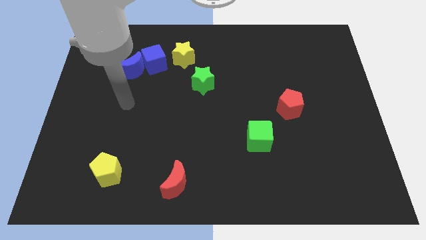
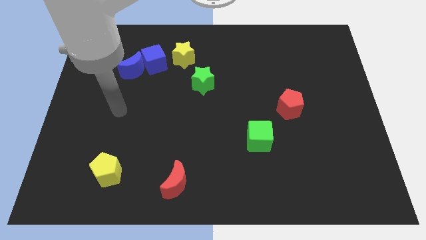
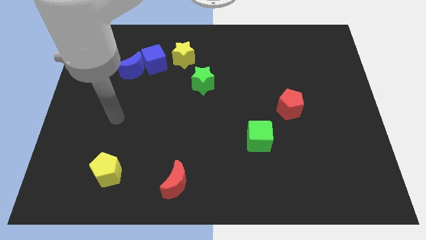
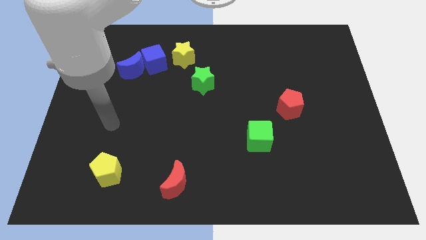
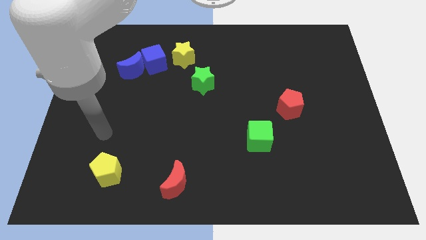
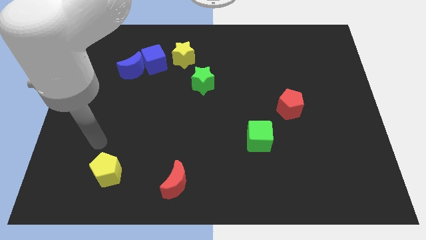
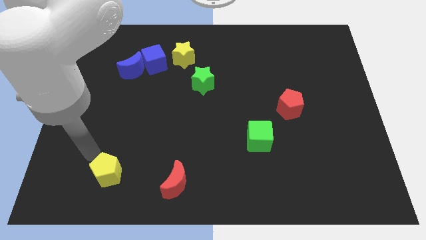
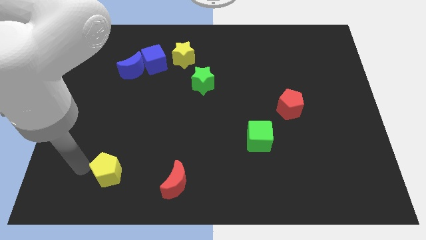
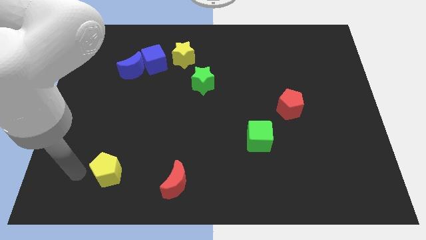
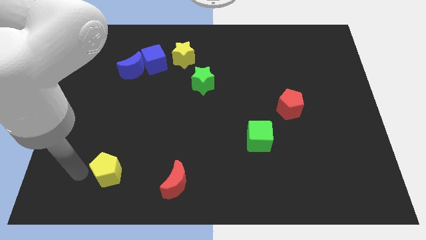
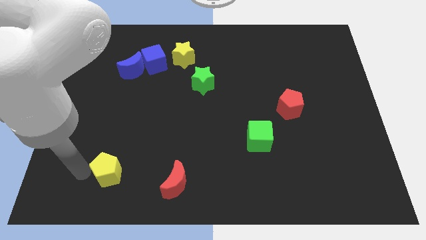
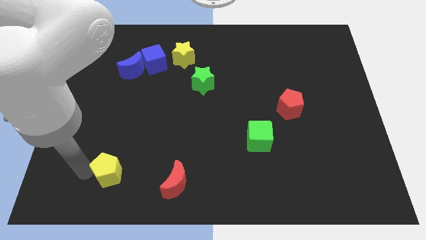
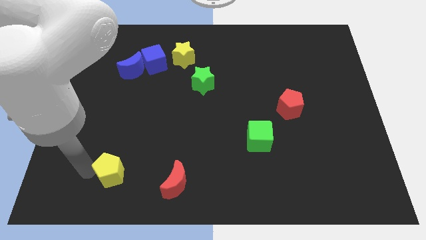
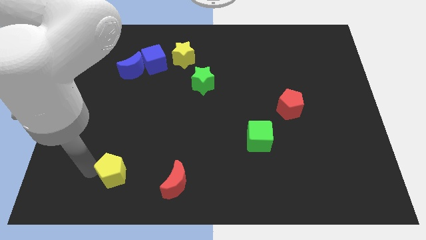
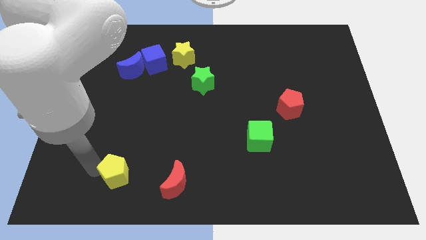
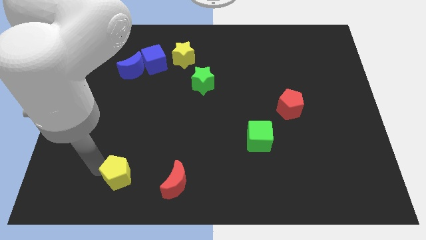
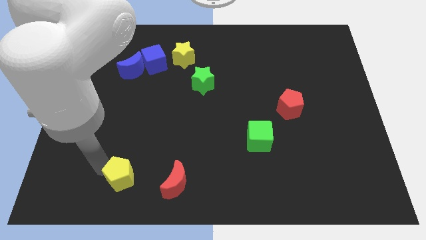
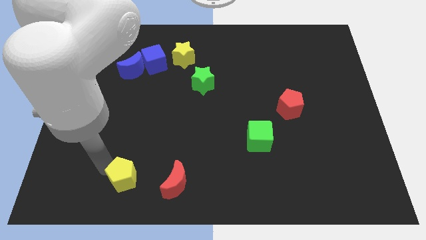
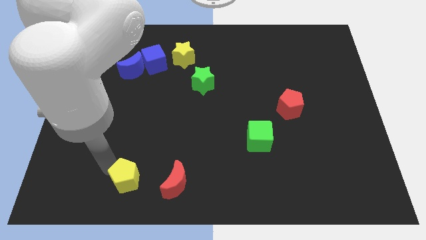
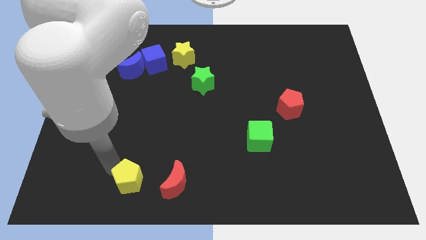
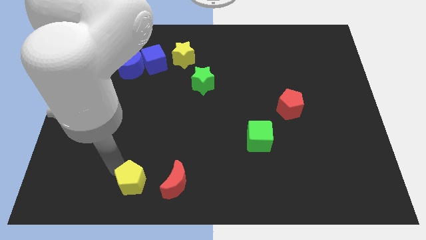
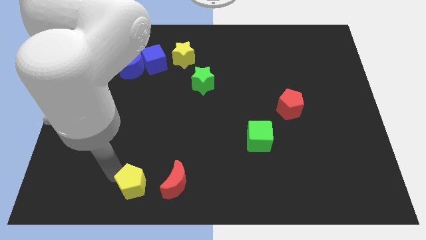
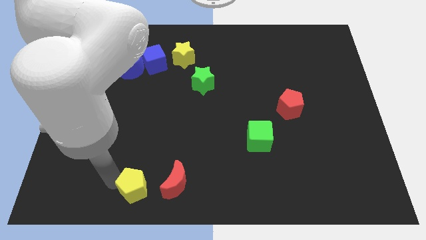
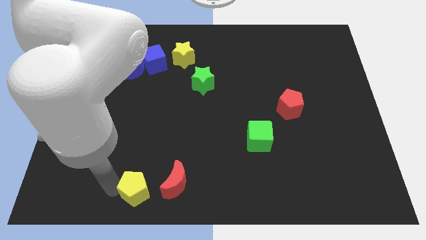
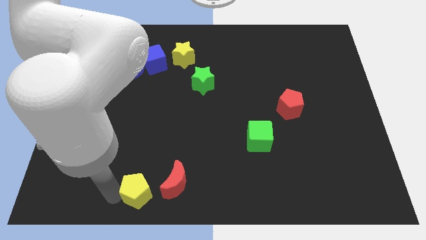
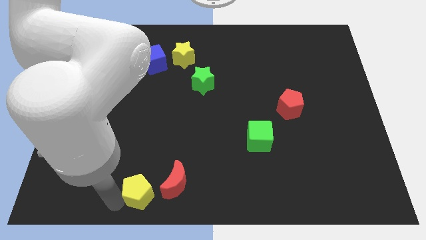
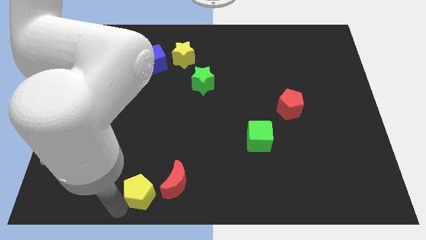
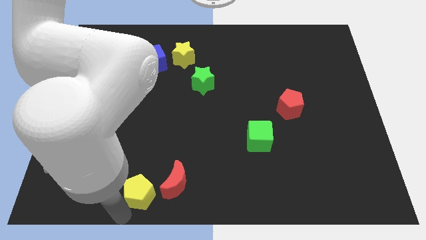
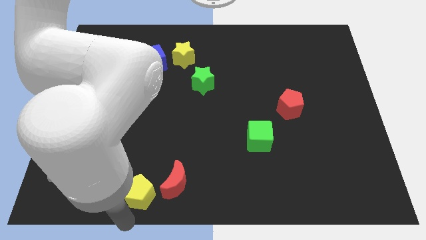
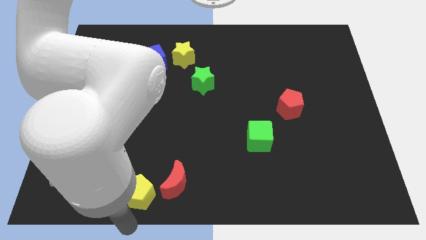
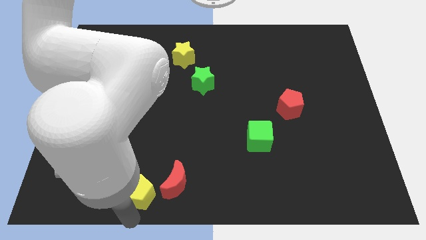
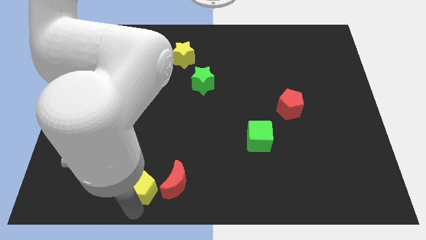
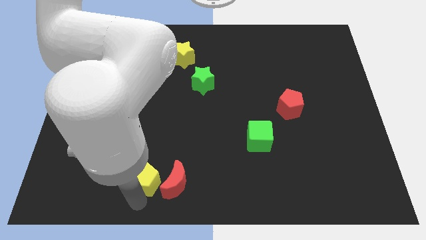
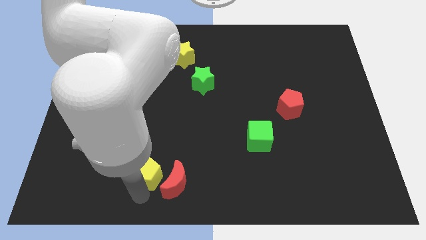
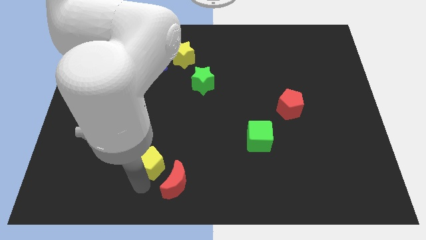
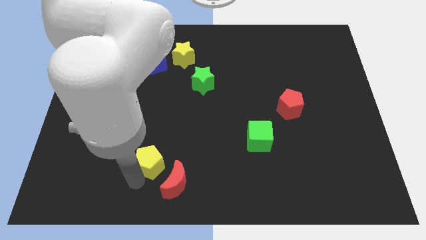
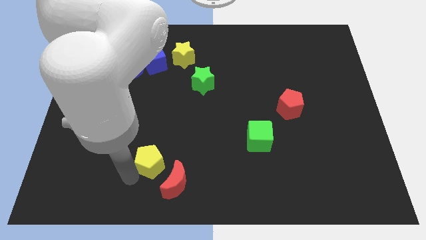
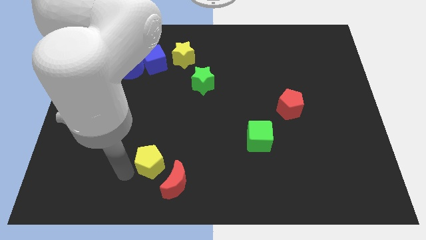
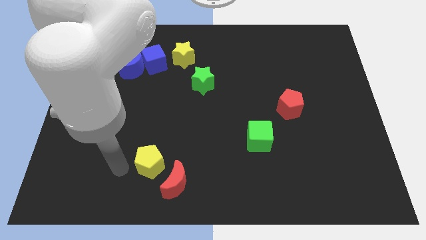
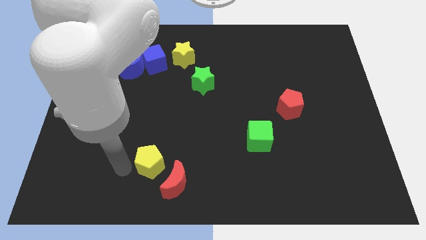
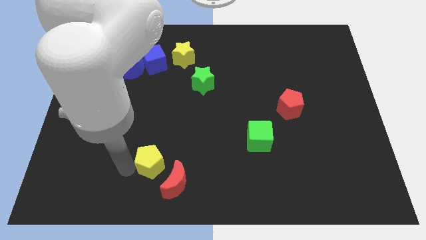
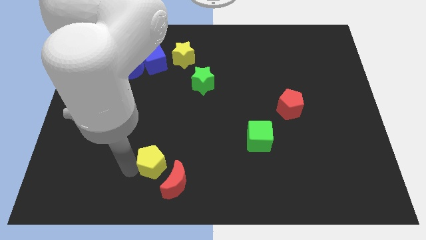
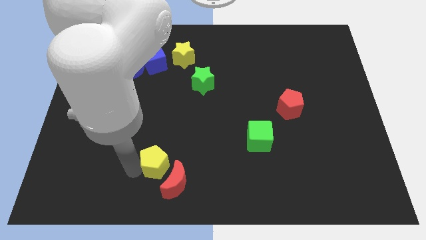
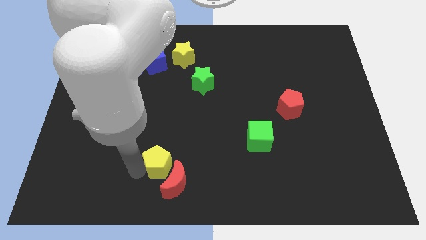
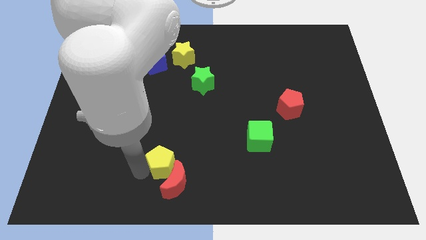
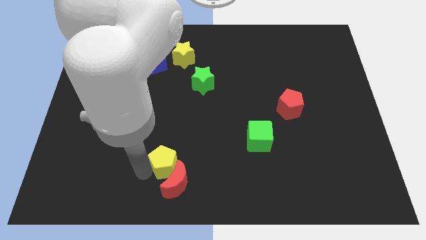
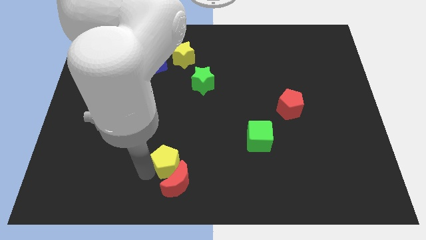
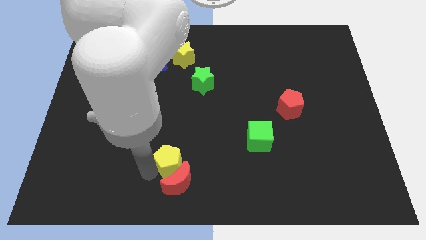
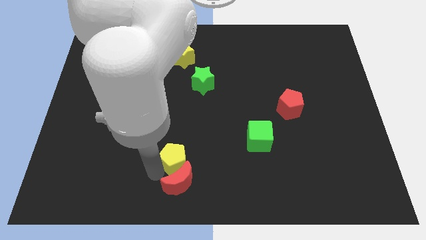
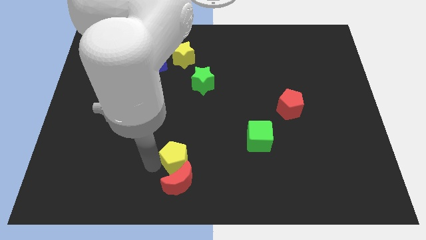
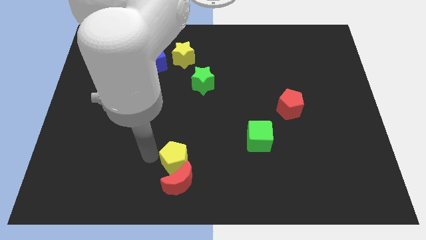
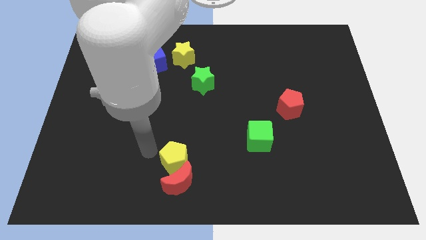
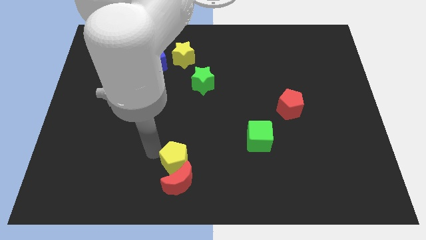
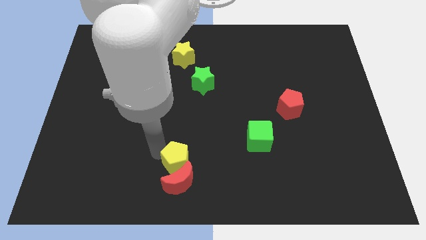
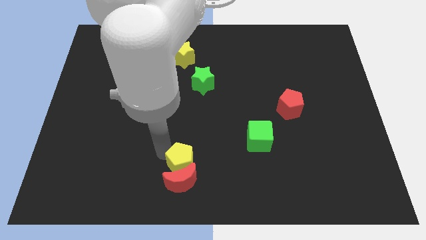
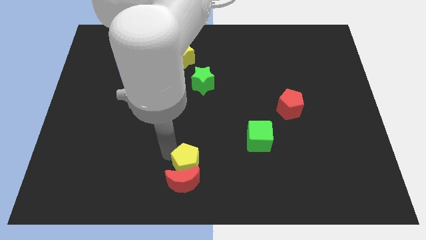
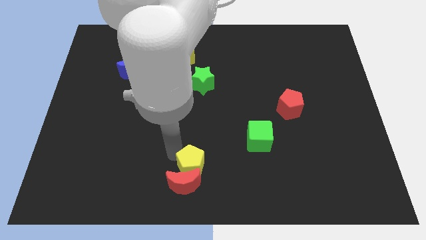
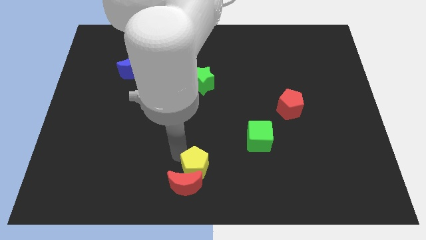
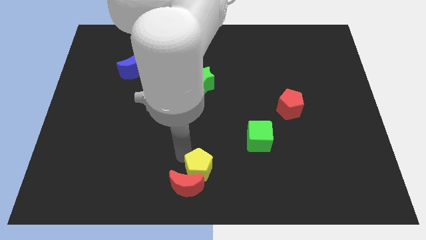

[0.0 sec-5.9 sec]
move the yellow pentagon right of the red moon

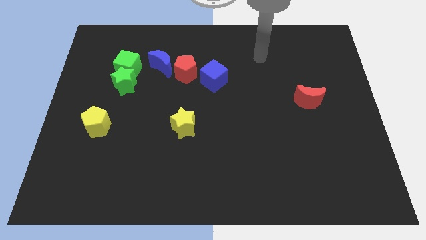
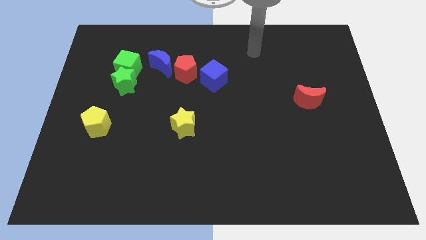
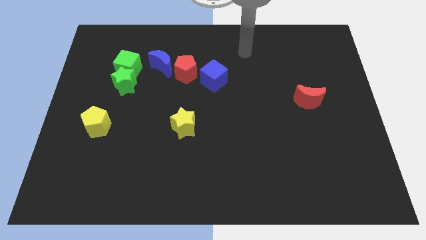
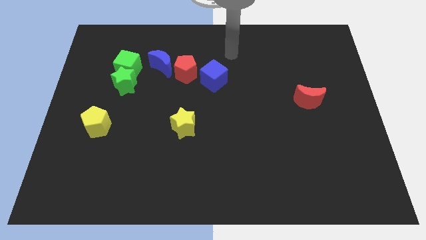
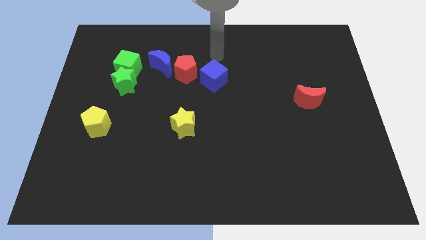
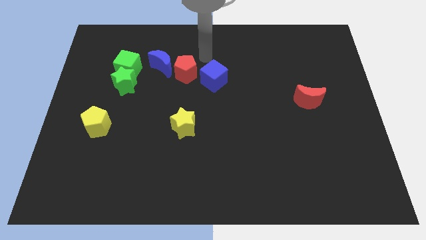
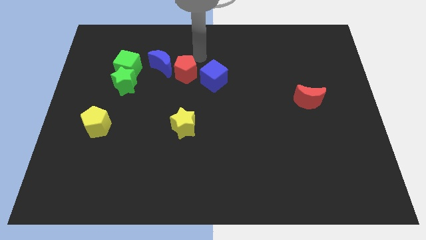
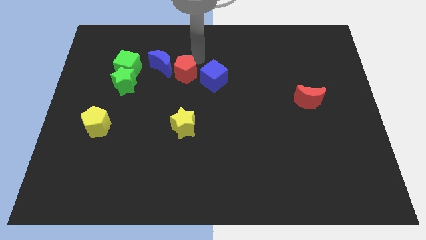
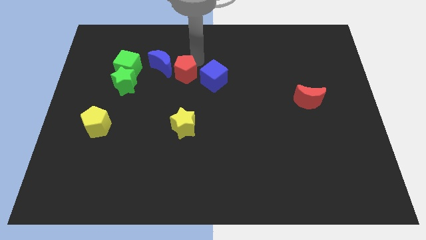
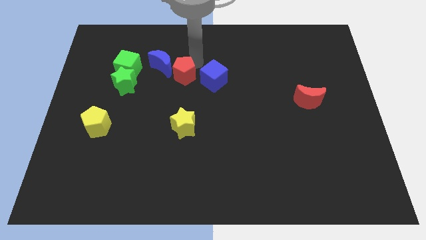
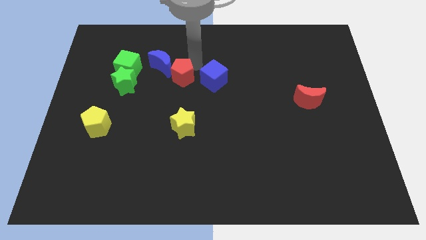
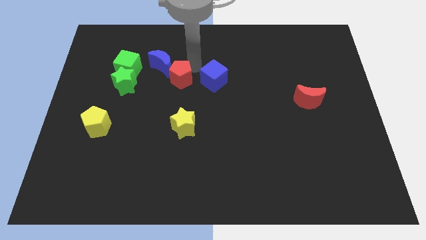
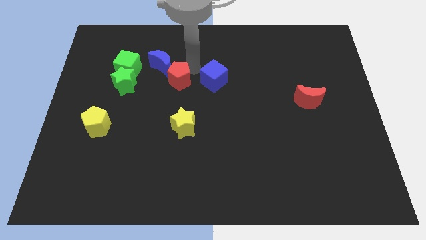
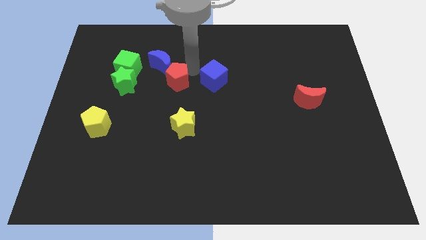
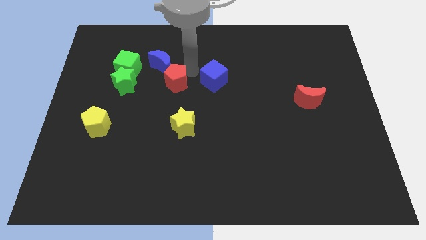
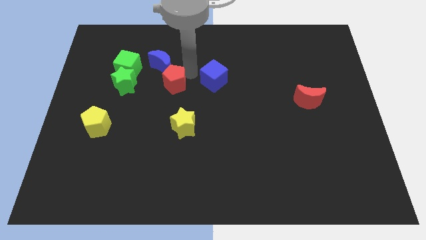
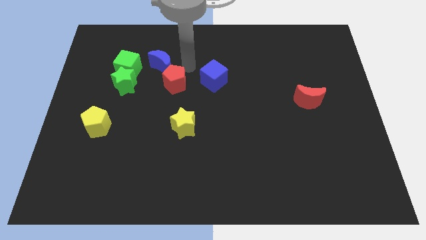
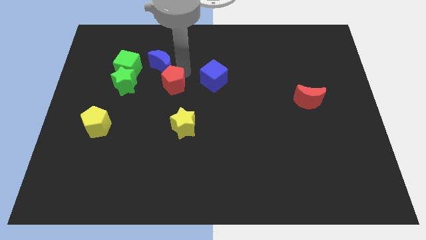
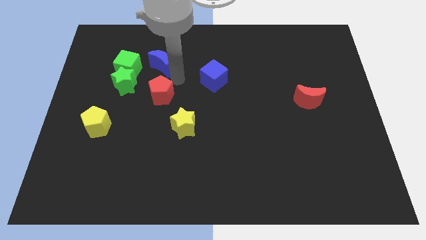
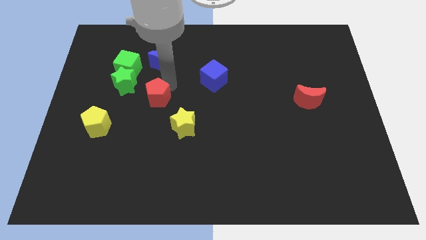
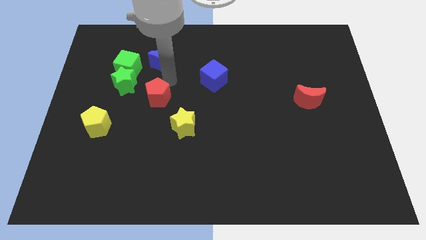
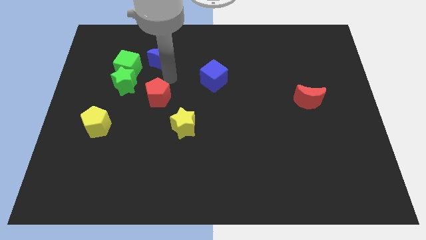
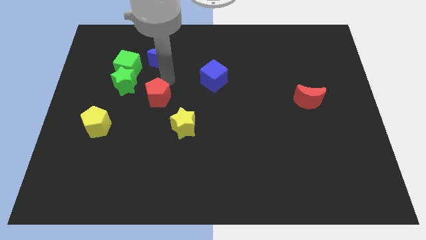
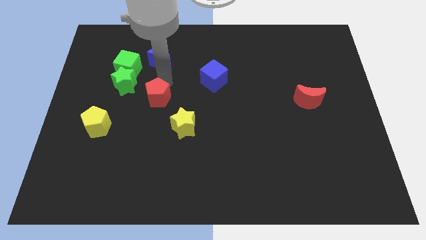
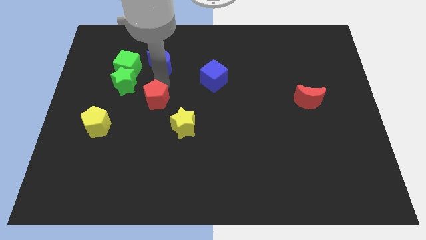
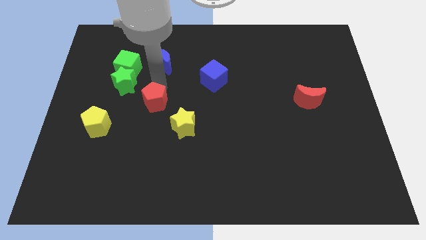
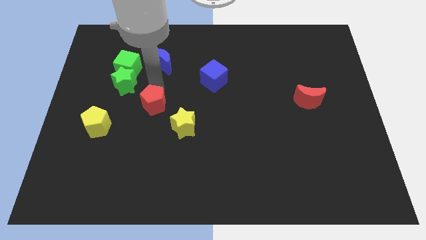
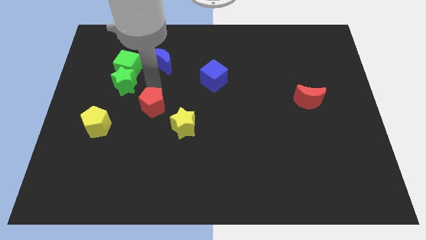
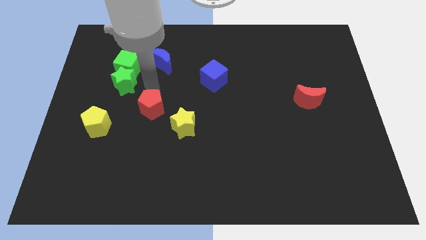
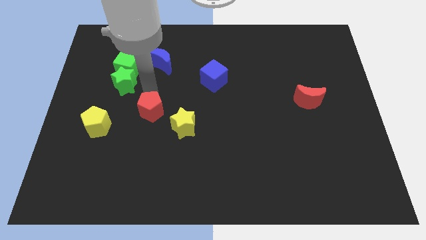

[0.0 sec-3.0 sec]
push the red pentagon just left of the yellow star
